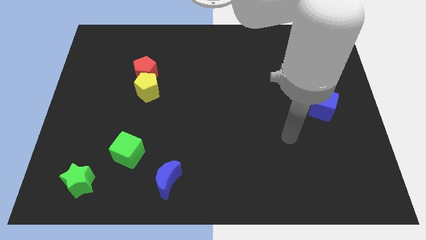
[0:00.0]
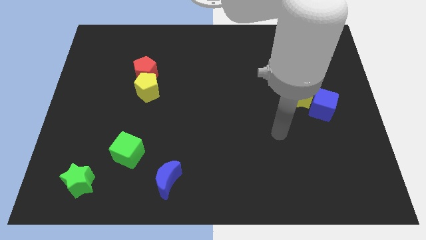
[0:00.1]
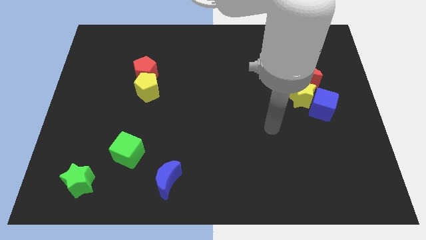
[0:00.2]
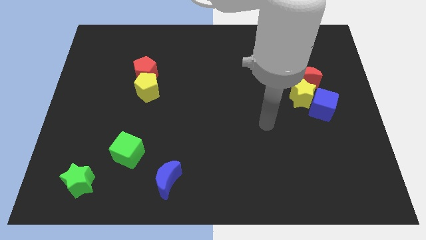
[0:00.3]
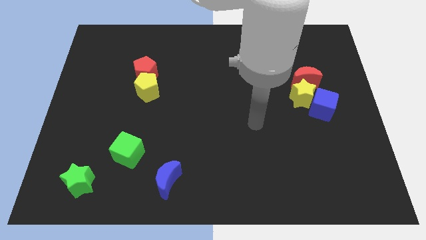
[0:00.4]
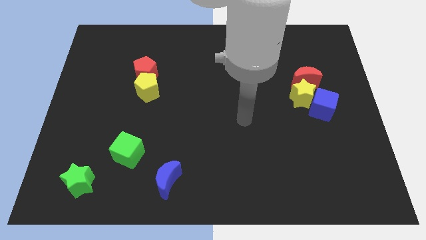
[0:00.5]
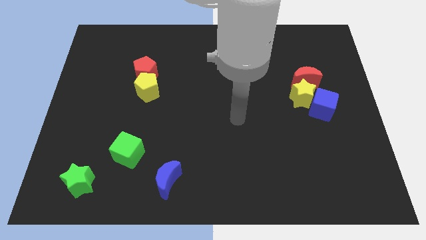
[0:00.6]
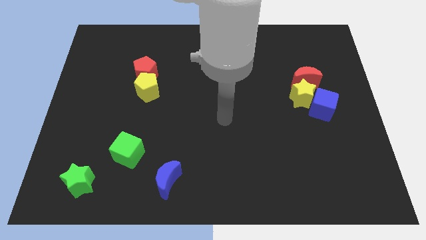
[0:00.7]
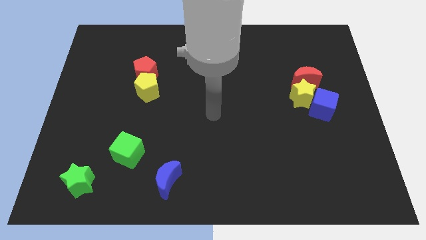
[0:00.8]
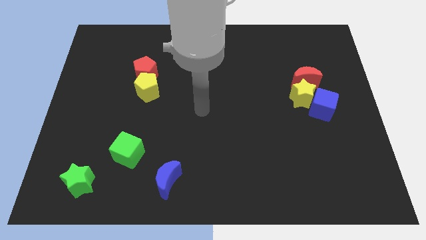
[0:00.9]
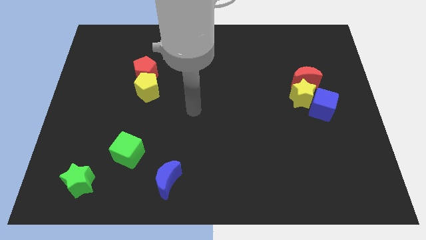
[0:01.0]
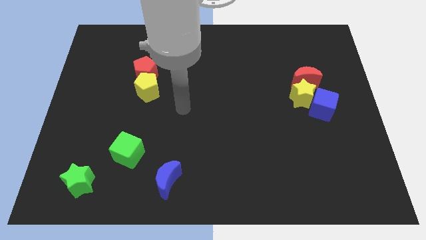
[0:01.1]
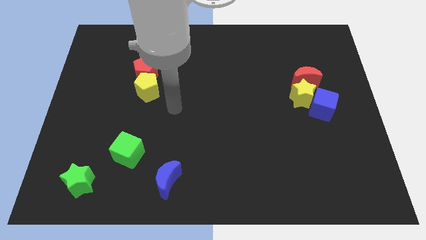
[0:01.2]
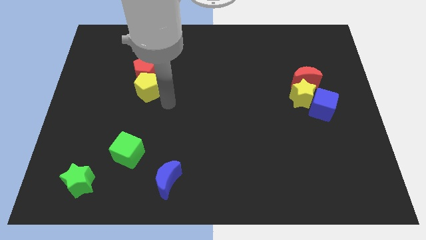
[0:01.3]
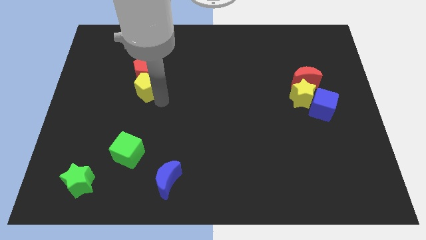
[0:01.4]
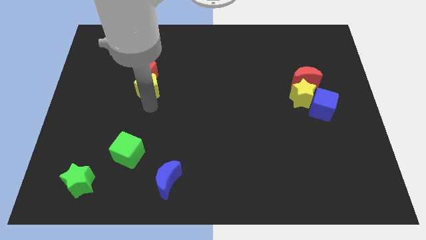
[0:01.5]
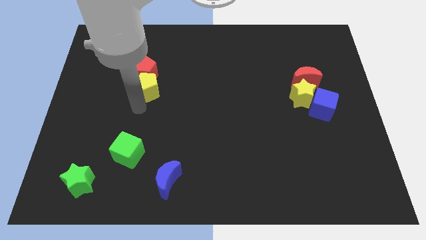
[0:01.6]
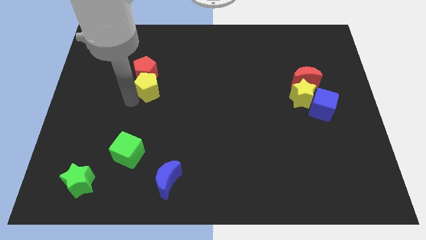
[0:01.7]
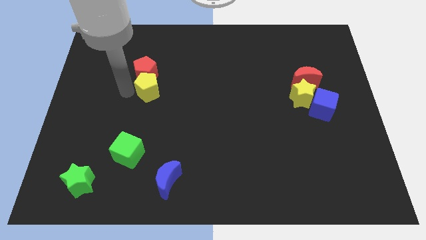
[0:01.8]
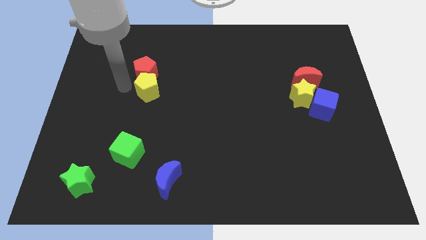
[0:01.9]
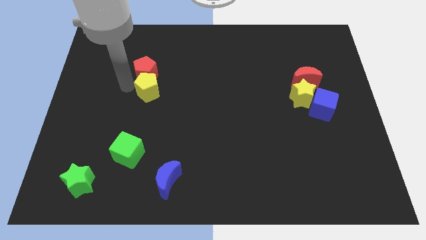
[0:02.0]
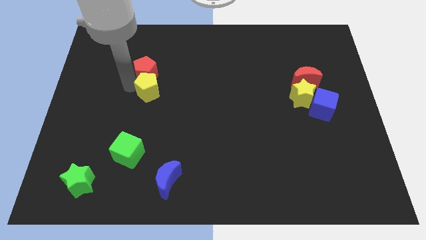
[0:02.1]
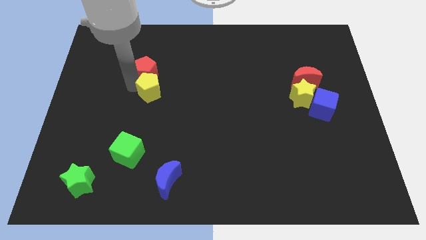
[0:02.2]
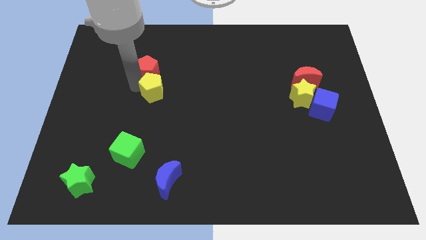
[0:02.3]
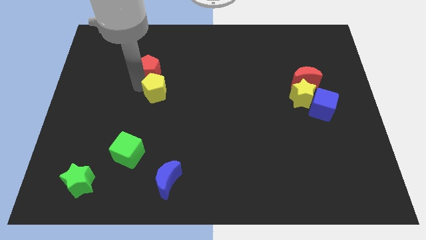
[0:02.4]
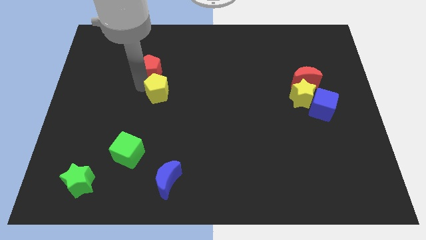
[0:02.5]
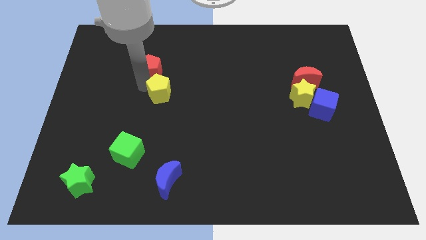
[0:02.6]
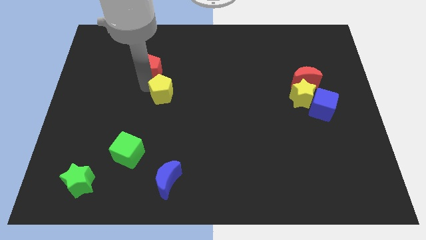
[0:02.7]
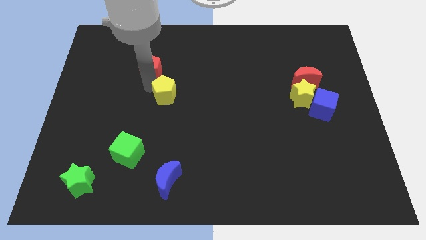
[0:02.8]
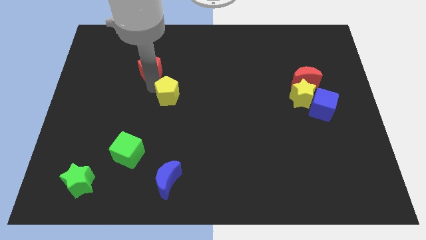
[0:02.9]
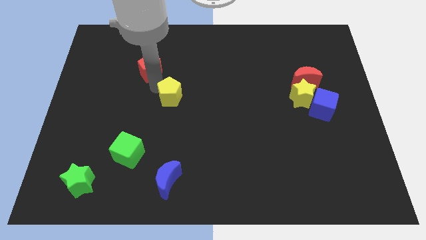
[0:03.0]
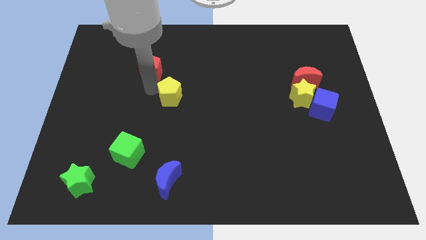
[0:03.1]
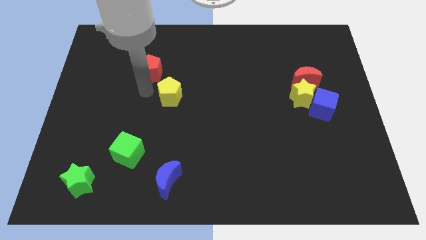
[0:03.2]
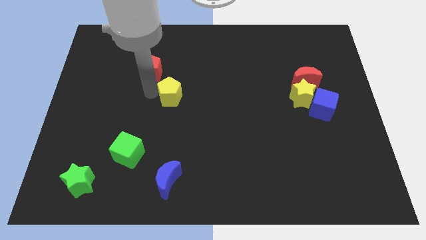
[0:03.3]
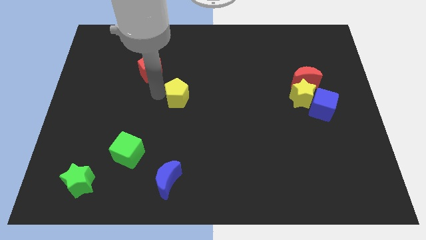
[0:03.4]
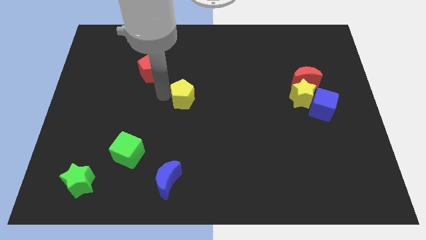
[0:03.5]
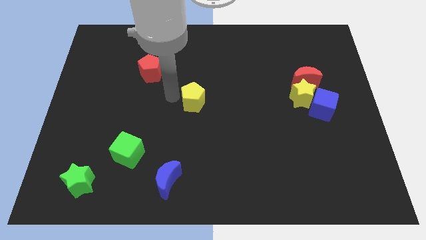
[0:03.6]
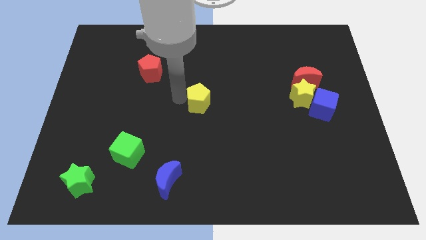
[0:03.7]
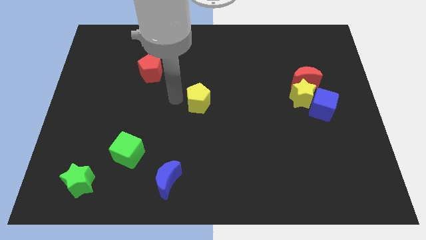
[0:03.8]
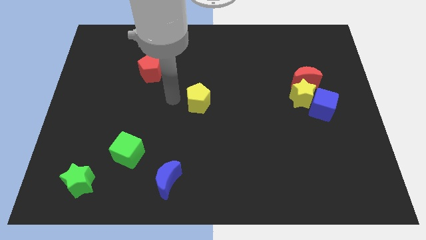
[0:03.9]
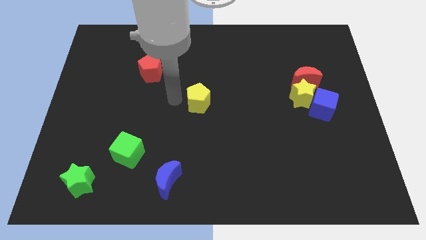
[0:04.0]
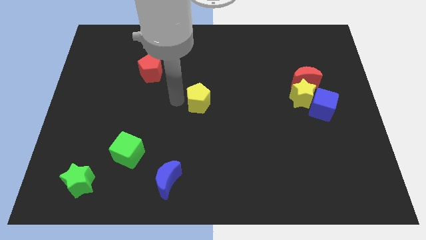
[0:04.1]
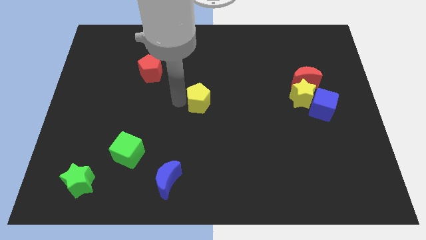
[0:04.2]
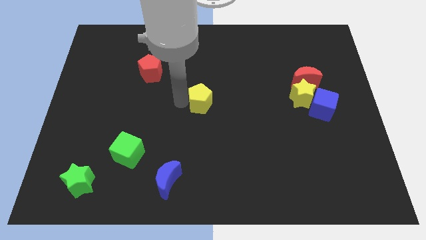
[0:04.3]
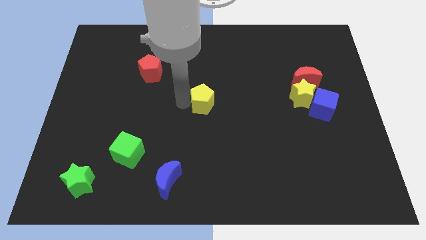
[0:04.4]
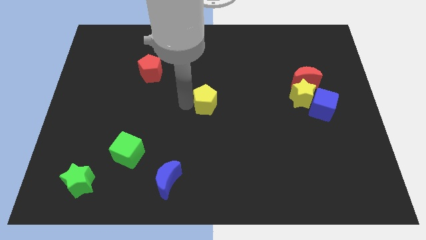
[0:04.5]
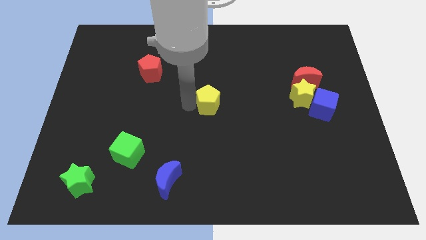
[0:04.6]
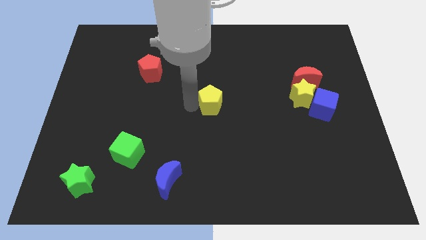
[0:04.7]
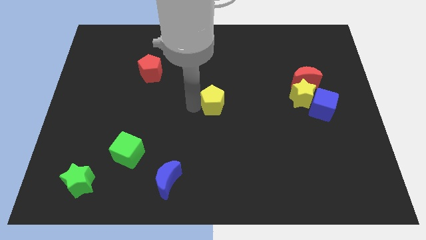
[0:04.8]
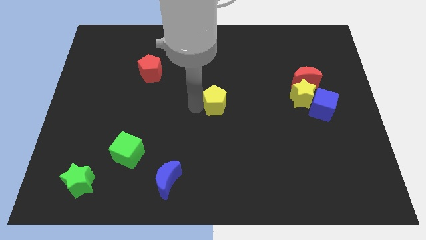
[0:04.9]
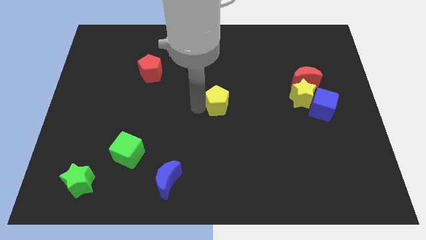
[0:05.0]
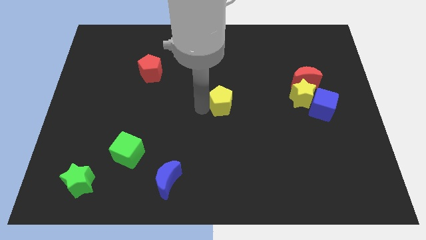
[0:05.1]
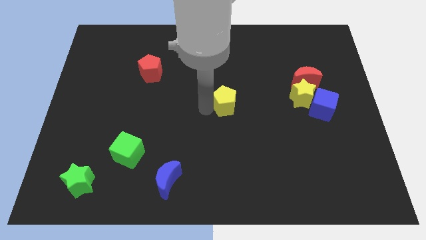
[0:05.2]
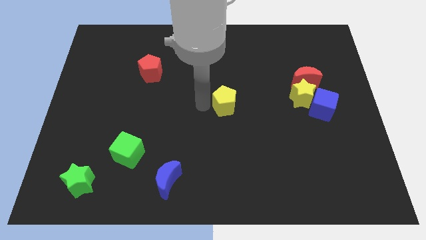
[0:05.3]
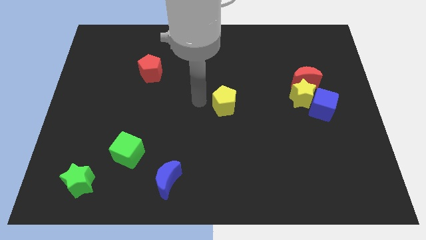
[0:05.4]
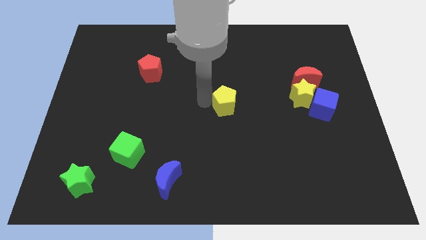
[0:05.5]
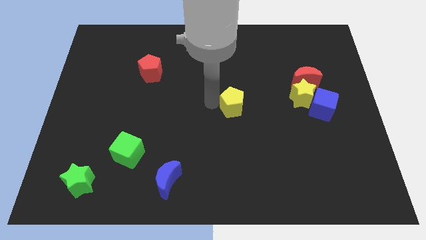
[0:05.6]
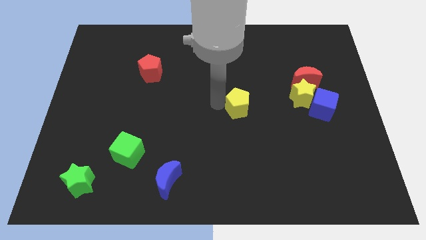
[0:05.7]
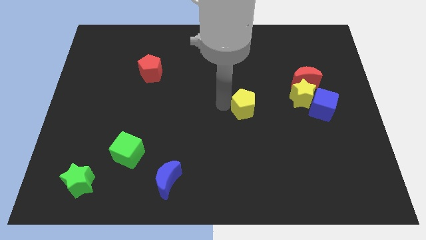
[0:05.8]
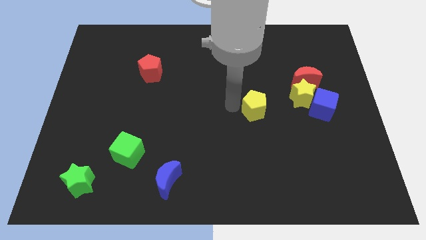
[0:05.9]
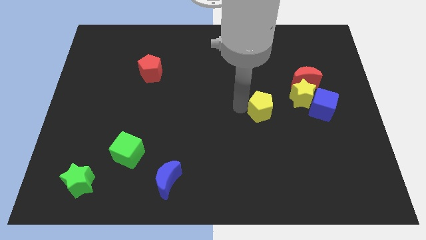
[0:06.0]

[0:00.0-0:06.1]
push the yellow pentagon to the bottom left side of the yellow star

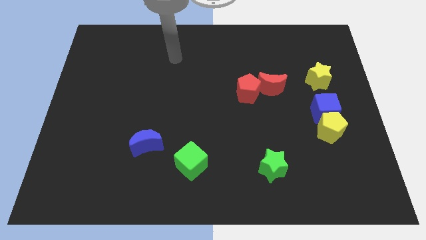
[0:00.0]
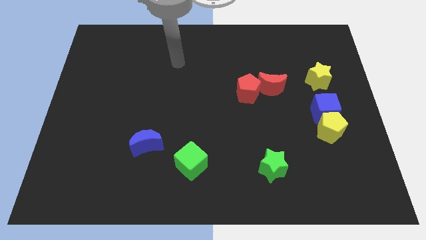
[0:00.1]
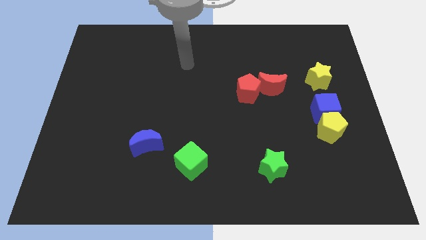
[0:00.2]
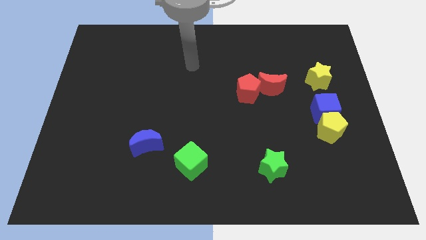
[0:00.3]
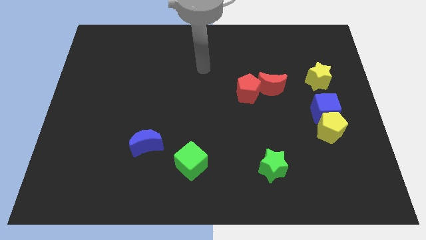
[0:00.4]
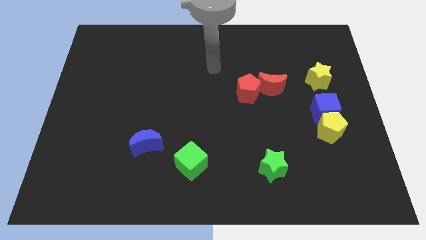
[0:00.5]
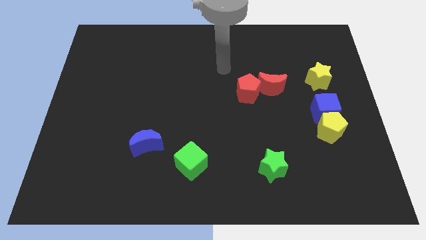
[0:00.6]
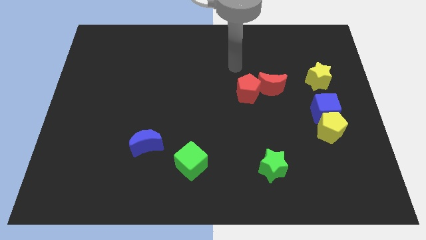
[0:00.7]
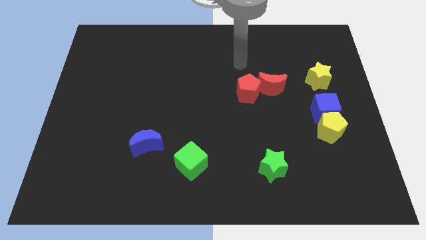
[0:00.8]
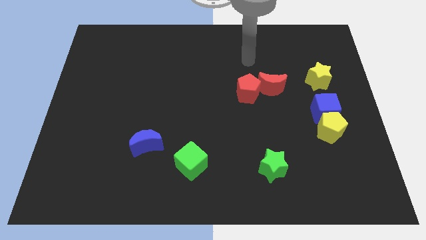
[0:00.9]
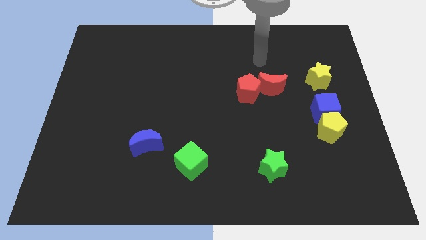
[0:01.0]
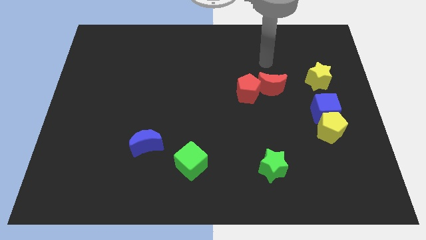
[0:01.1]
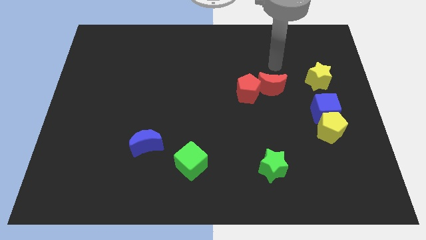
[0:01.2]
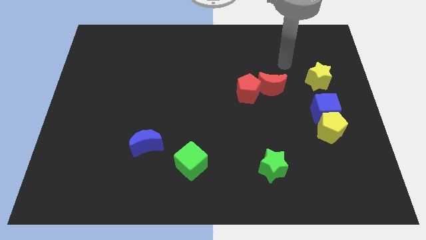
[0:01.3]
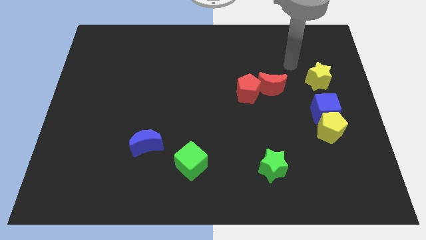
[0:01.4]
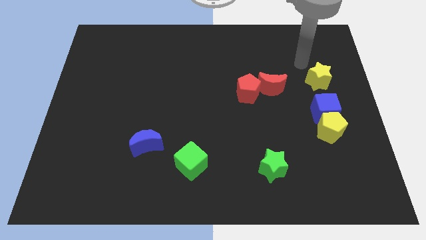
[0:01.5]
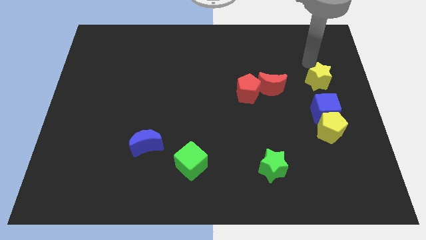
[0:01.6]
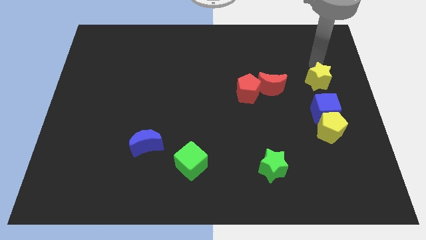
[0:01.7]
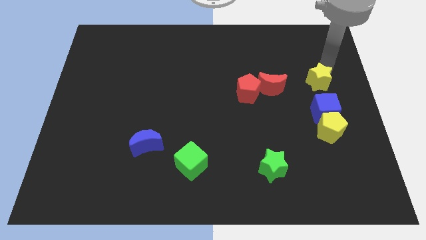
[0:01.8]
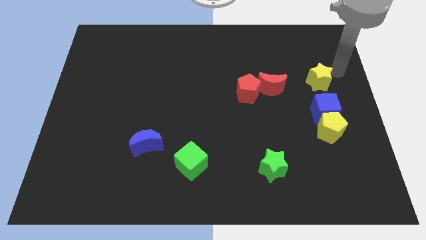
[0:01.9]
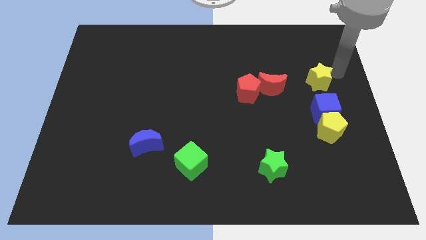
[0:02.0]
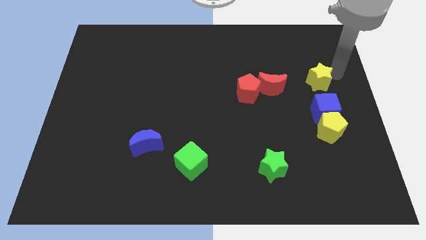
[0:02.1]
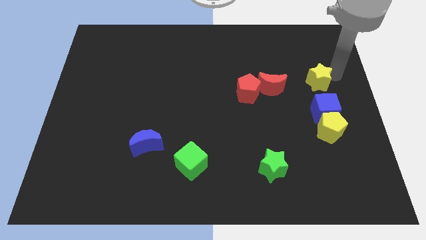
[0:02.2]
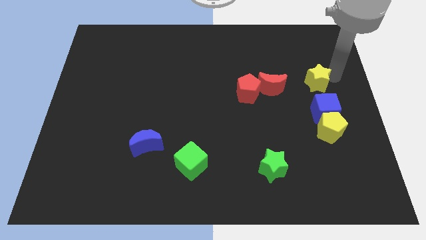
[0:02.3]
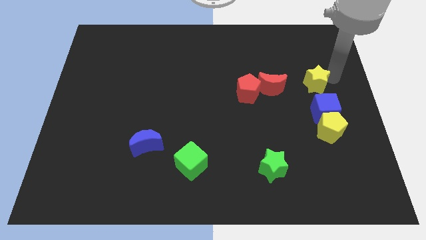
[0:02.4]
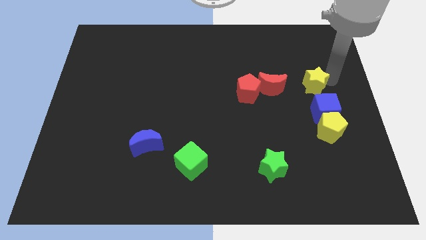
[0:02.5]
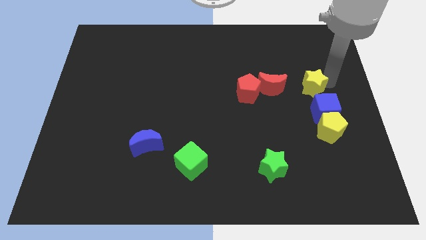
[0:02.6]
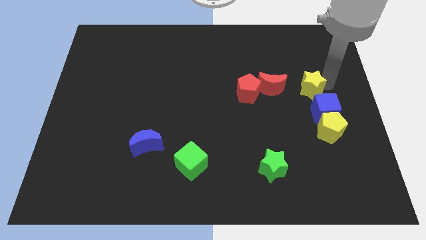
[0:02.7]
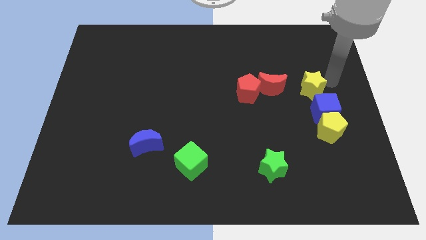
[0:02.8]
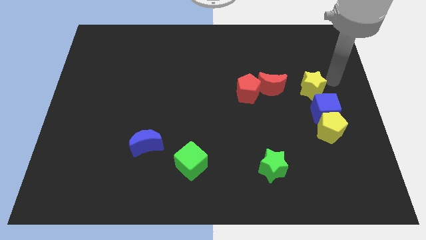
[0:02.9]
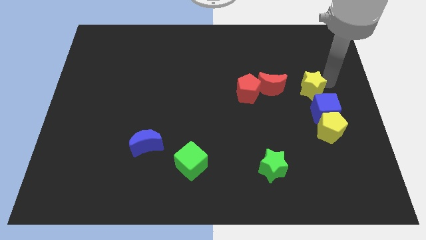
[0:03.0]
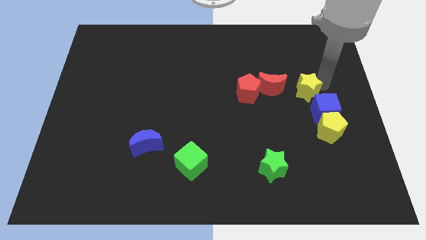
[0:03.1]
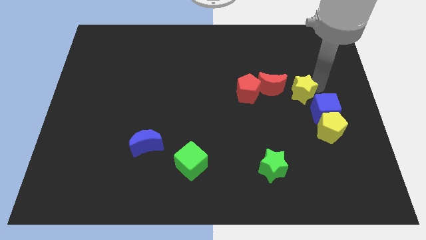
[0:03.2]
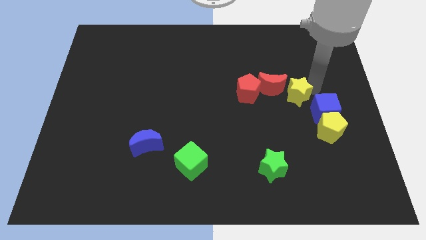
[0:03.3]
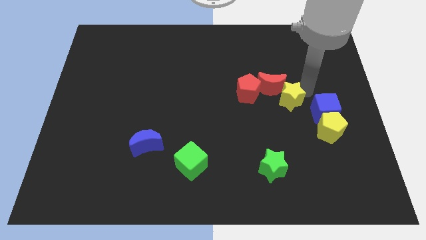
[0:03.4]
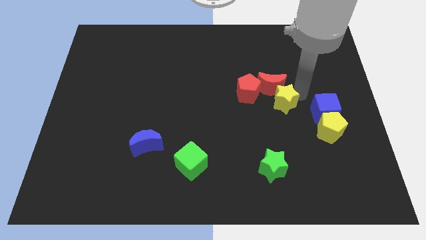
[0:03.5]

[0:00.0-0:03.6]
slide the yellow star to the bottom right side of the red pentagon
